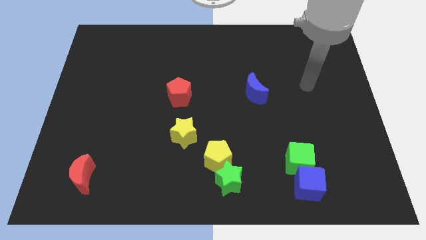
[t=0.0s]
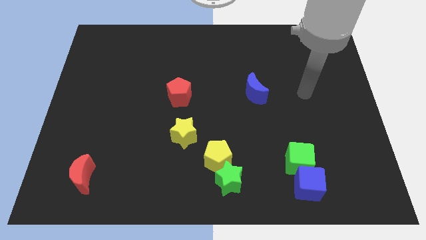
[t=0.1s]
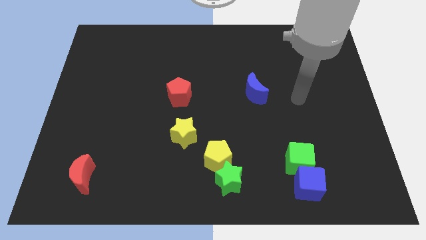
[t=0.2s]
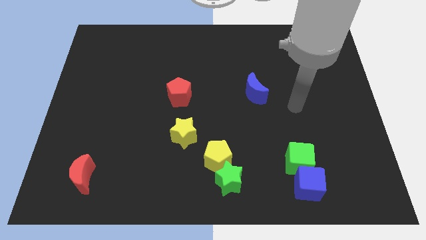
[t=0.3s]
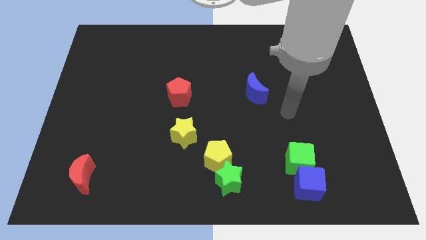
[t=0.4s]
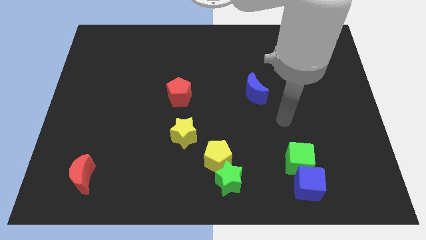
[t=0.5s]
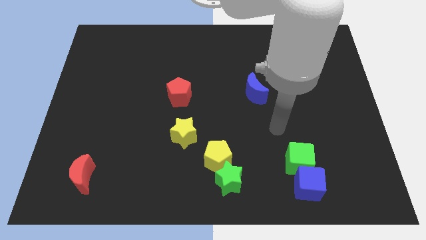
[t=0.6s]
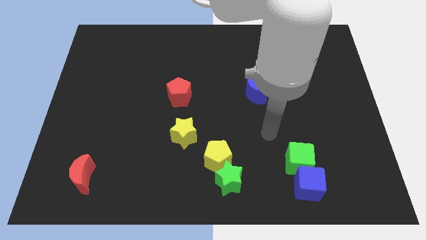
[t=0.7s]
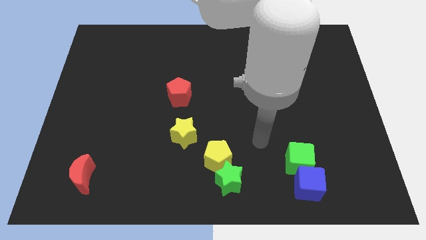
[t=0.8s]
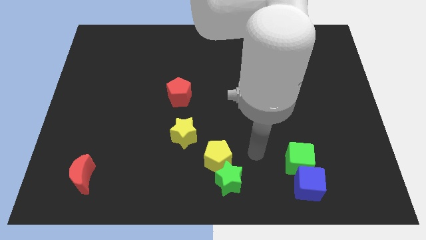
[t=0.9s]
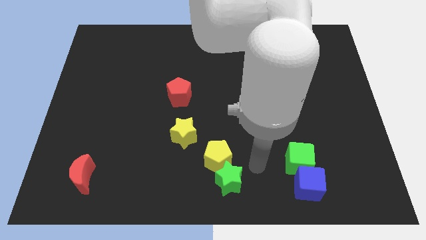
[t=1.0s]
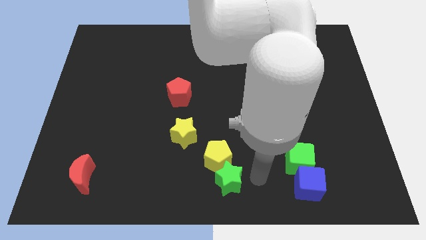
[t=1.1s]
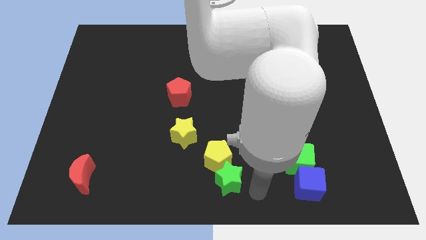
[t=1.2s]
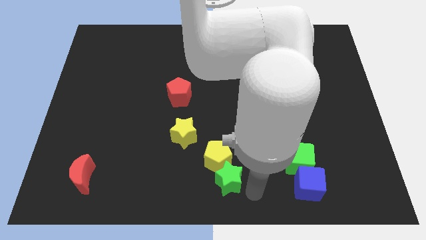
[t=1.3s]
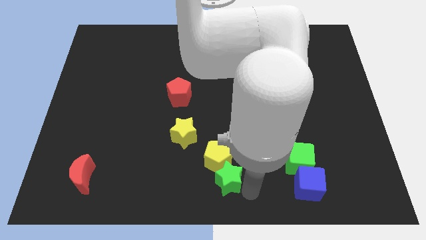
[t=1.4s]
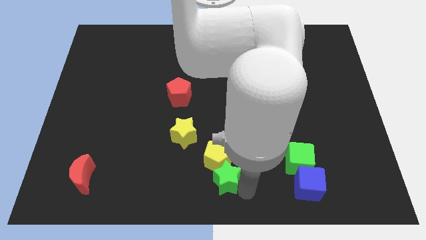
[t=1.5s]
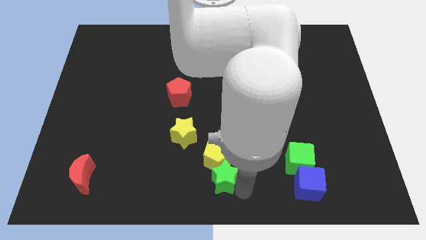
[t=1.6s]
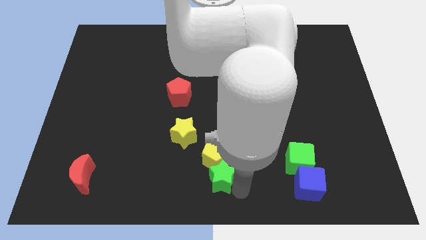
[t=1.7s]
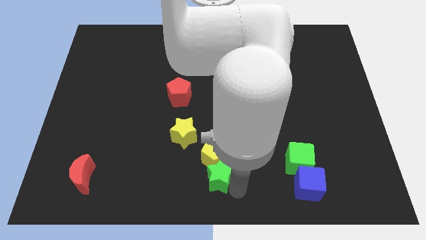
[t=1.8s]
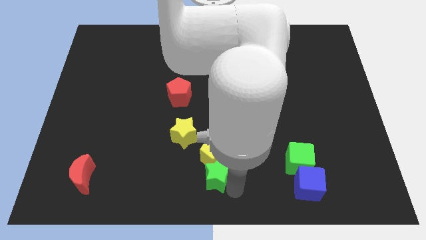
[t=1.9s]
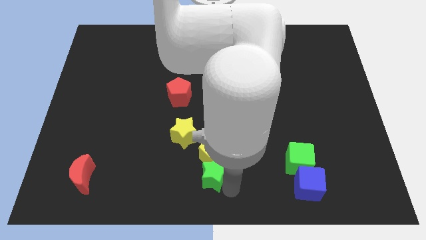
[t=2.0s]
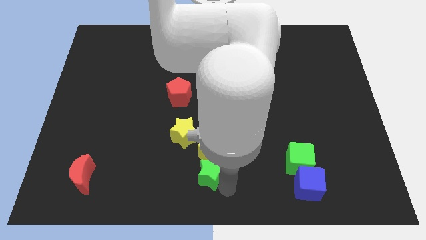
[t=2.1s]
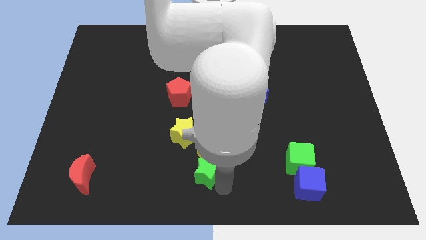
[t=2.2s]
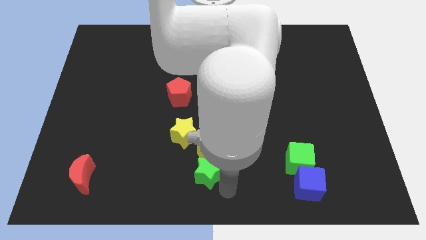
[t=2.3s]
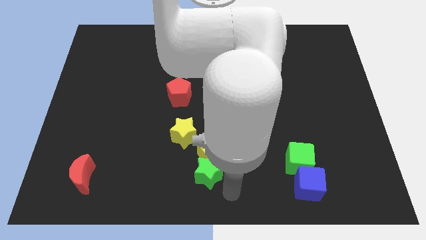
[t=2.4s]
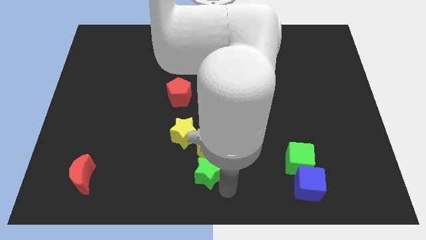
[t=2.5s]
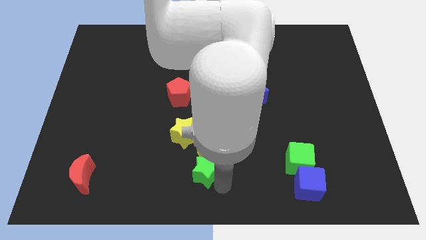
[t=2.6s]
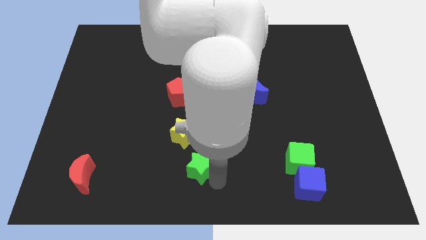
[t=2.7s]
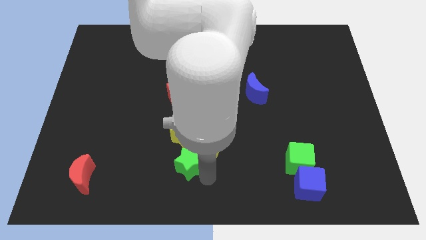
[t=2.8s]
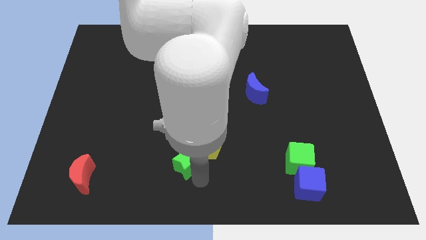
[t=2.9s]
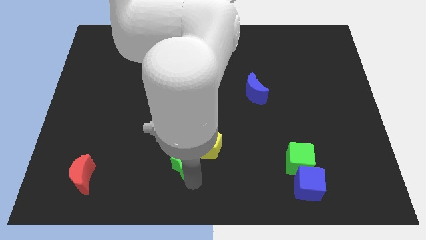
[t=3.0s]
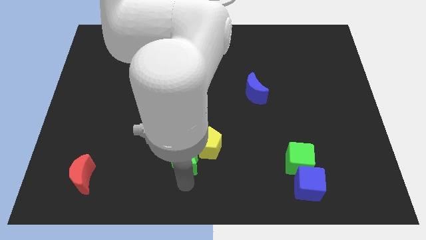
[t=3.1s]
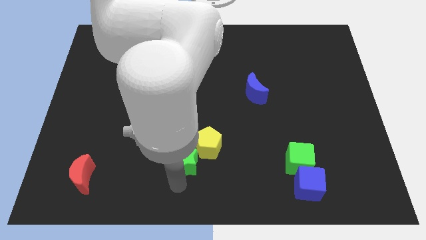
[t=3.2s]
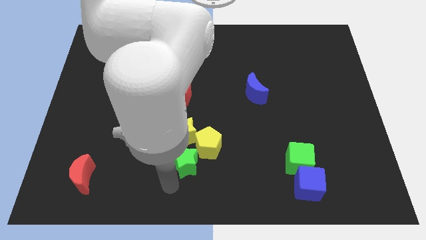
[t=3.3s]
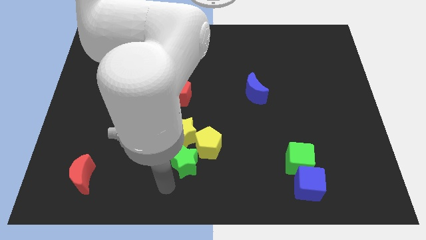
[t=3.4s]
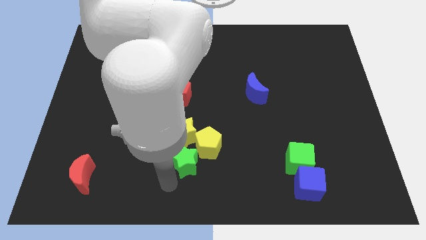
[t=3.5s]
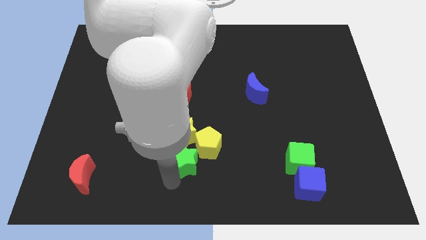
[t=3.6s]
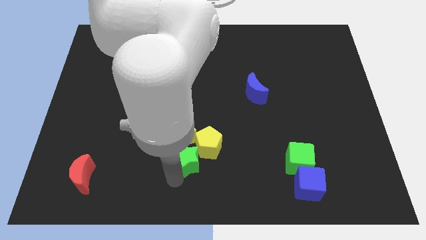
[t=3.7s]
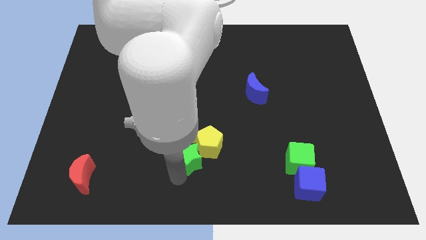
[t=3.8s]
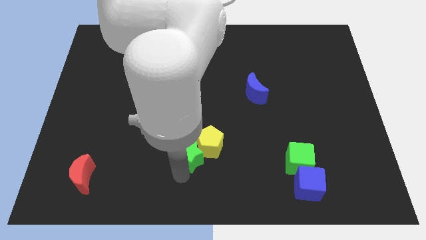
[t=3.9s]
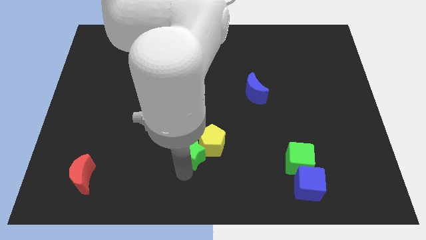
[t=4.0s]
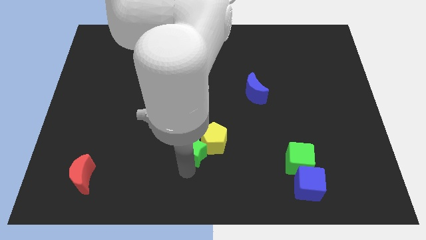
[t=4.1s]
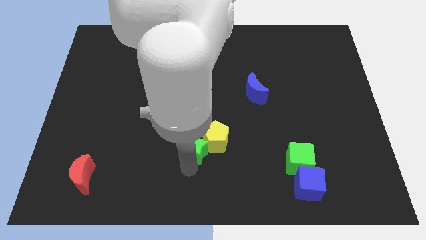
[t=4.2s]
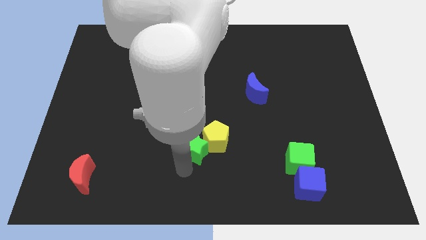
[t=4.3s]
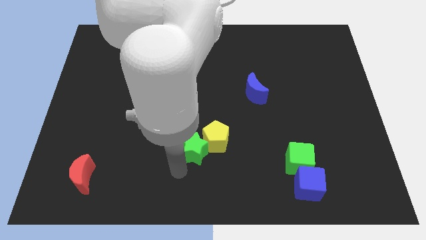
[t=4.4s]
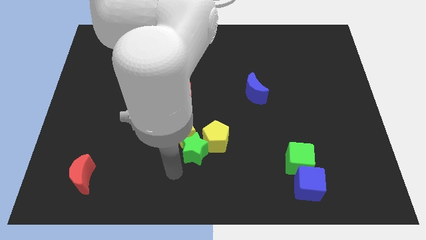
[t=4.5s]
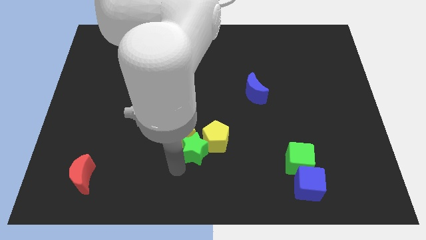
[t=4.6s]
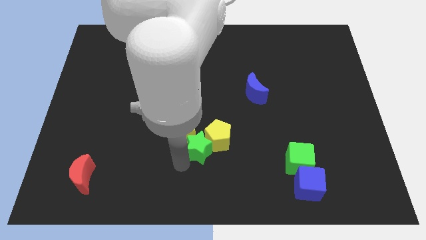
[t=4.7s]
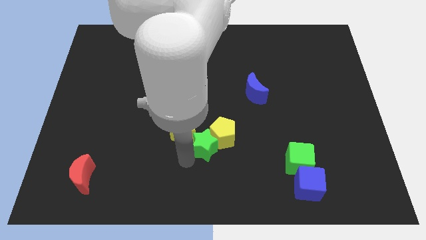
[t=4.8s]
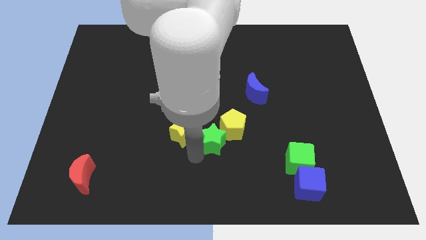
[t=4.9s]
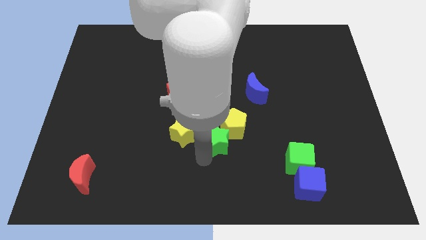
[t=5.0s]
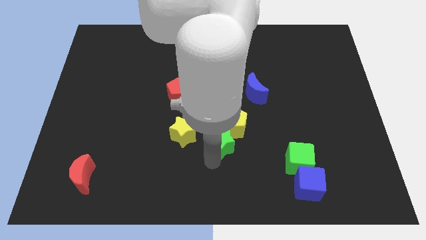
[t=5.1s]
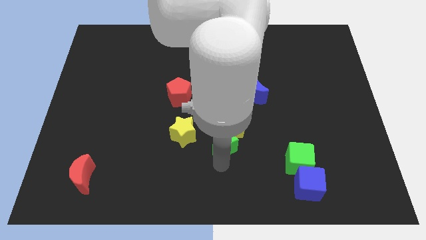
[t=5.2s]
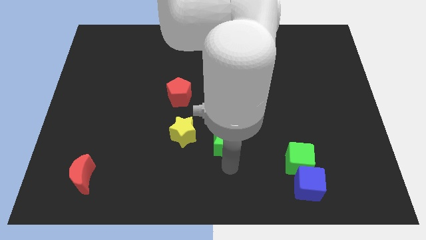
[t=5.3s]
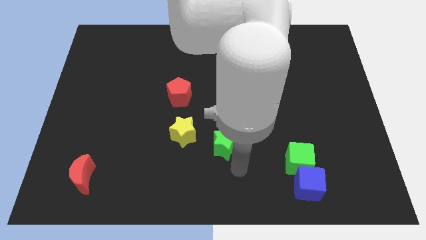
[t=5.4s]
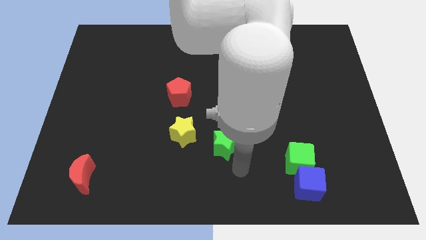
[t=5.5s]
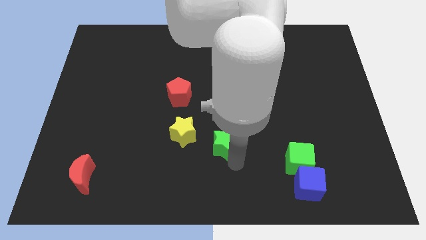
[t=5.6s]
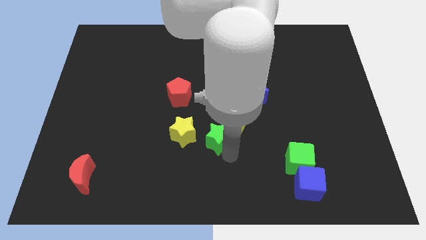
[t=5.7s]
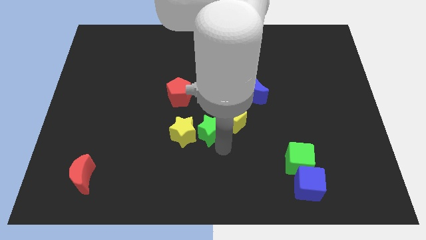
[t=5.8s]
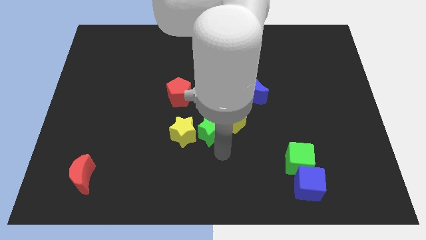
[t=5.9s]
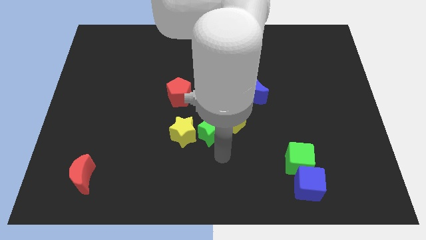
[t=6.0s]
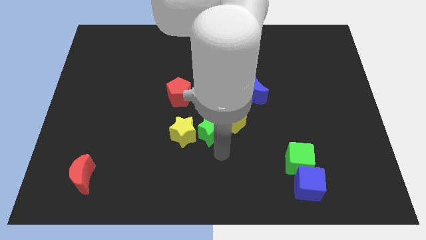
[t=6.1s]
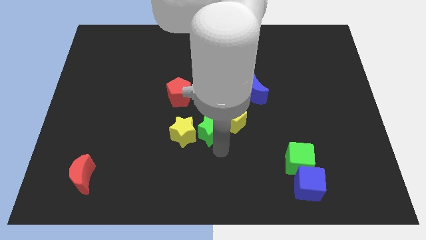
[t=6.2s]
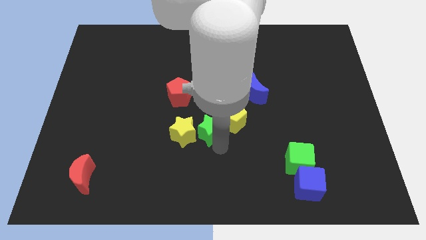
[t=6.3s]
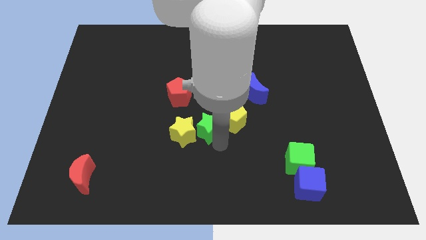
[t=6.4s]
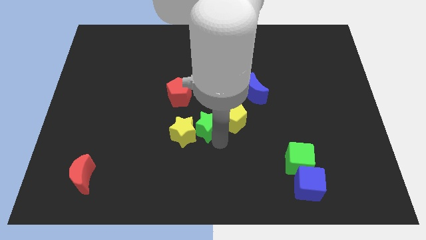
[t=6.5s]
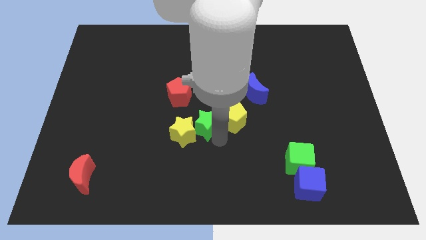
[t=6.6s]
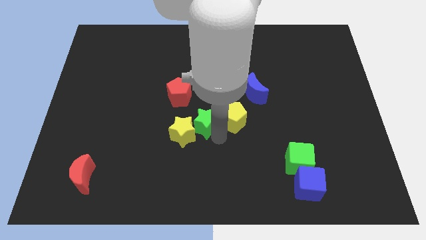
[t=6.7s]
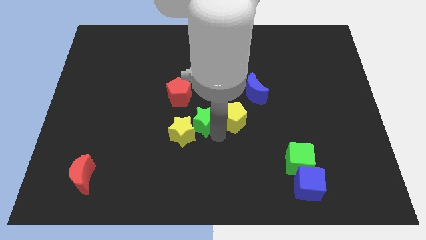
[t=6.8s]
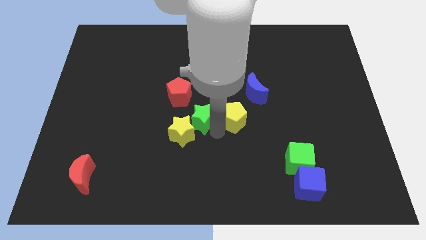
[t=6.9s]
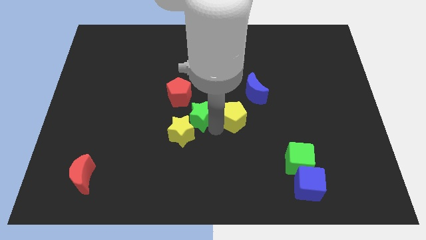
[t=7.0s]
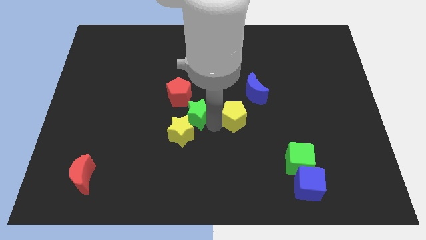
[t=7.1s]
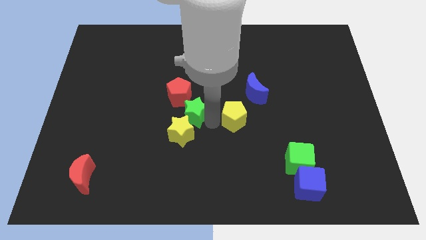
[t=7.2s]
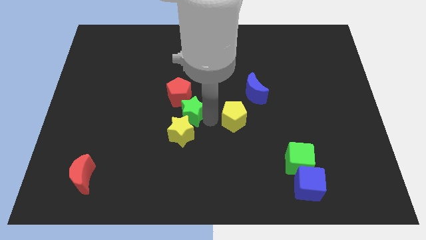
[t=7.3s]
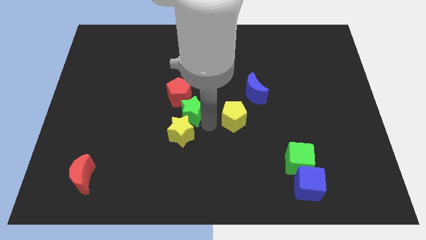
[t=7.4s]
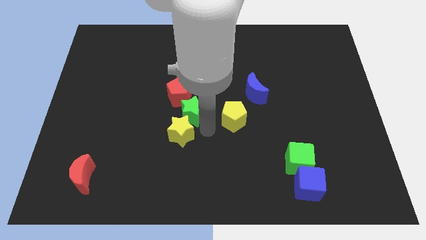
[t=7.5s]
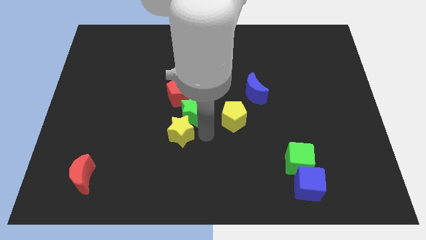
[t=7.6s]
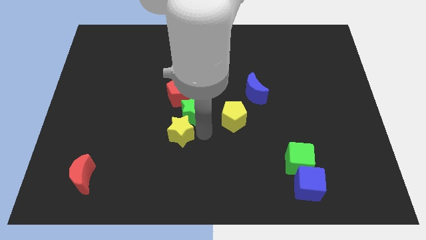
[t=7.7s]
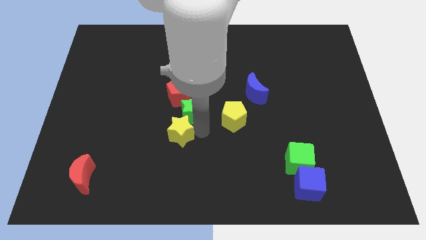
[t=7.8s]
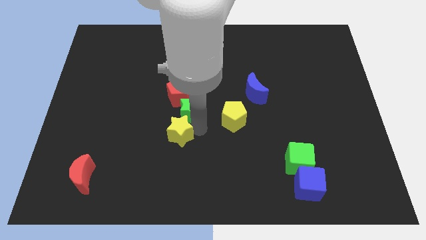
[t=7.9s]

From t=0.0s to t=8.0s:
slide the green star close to the red pentagon
